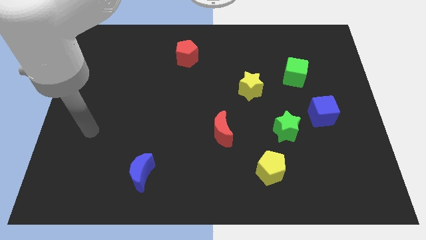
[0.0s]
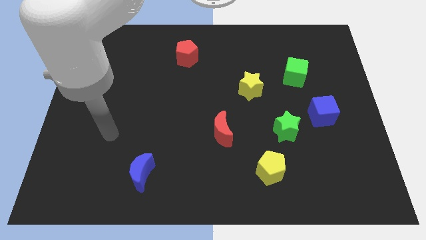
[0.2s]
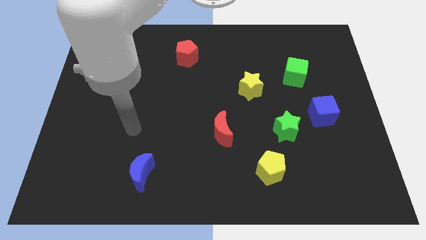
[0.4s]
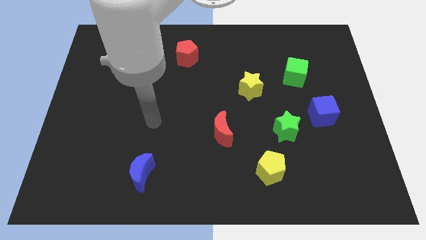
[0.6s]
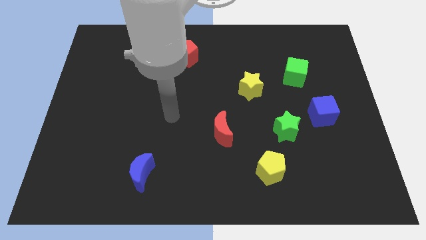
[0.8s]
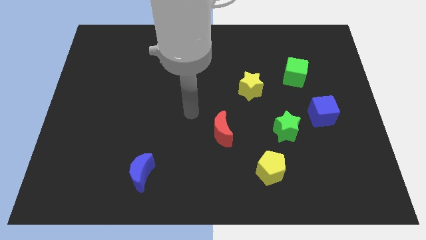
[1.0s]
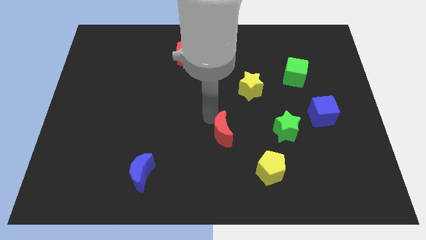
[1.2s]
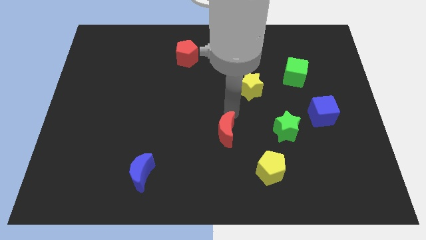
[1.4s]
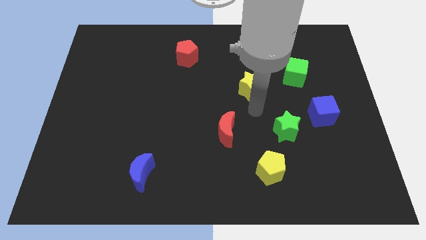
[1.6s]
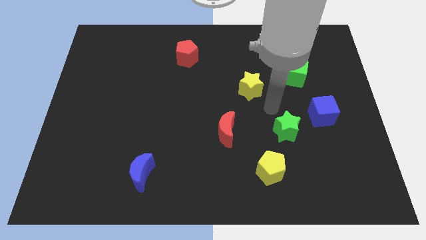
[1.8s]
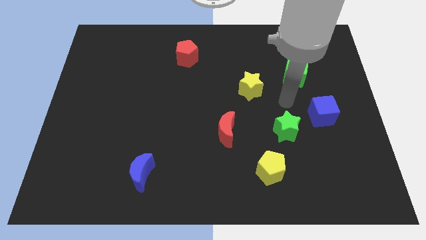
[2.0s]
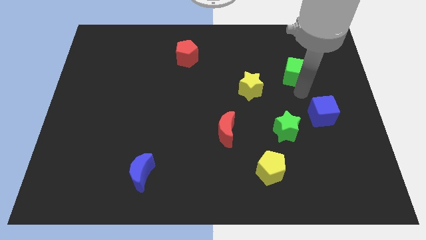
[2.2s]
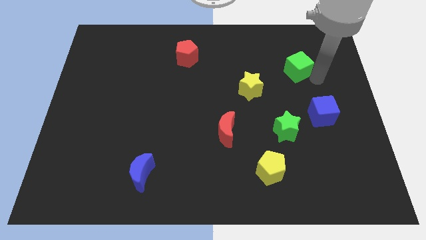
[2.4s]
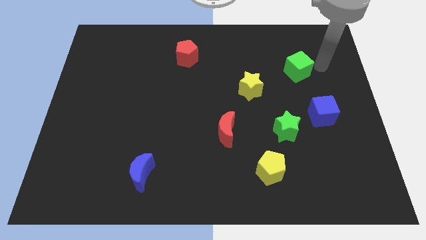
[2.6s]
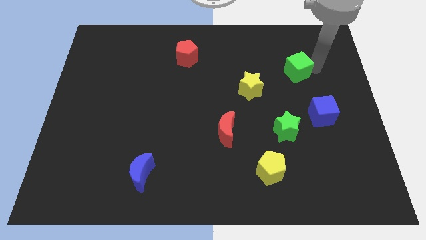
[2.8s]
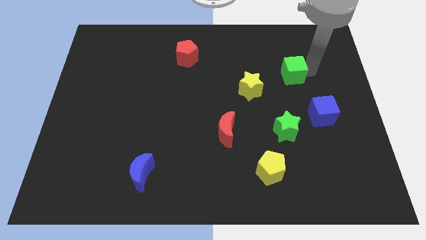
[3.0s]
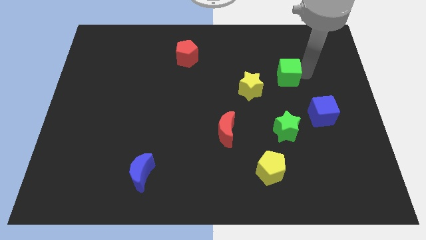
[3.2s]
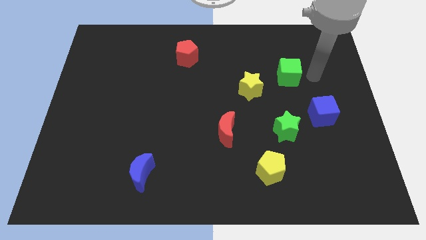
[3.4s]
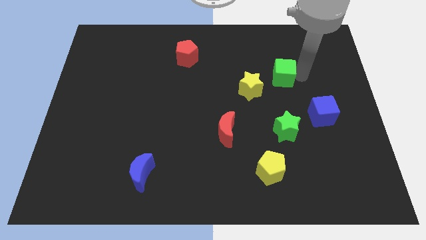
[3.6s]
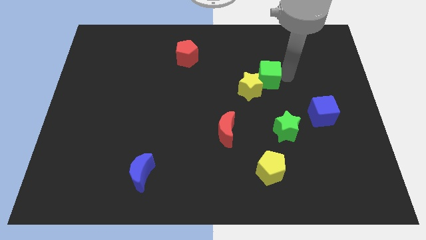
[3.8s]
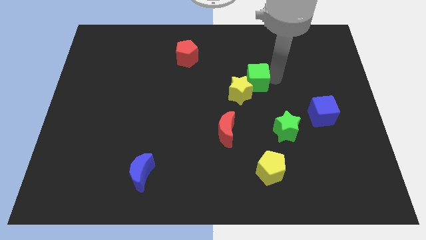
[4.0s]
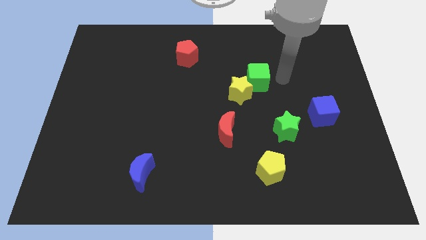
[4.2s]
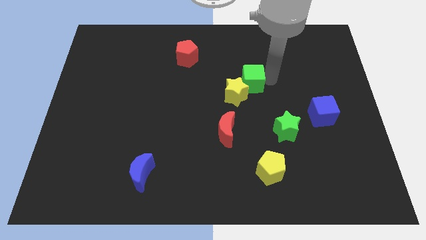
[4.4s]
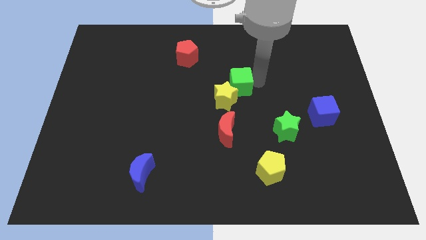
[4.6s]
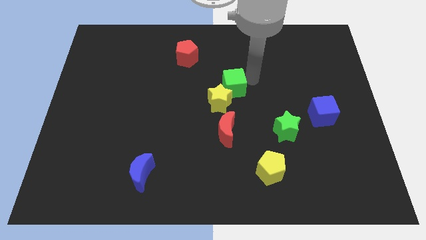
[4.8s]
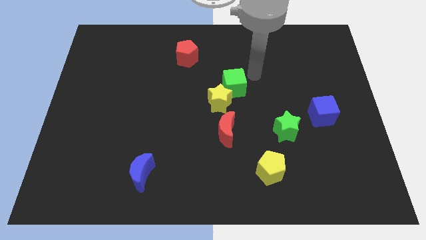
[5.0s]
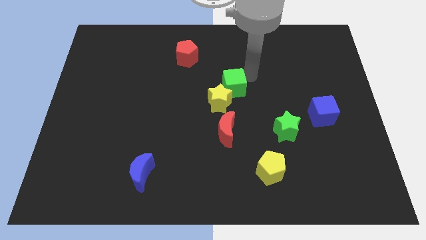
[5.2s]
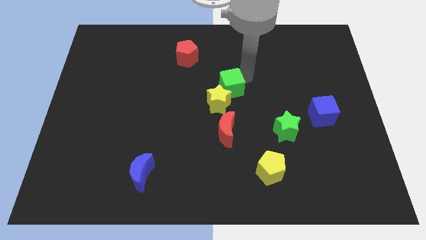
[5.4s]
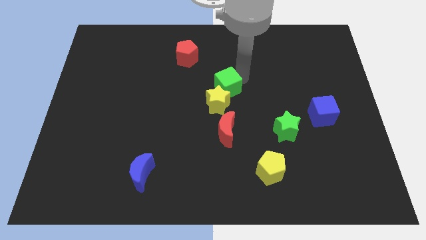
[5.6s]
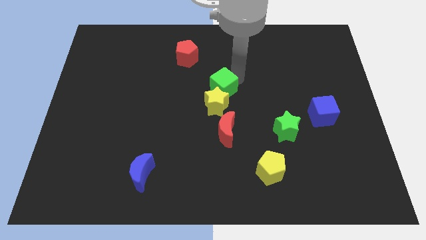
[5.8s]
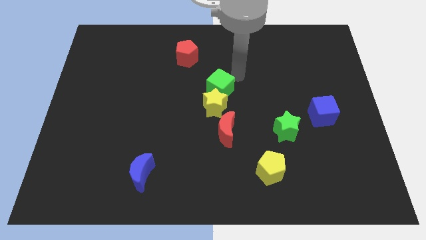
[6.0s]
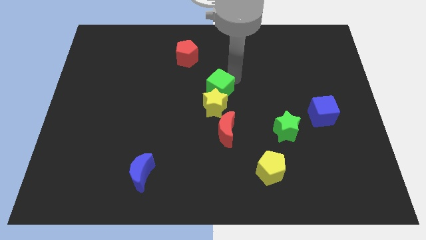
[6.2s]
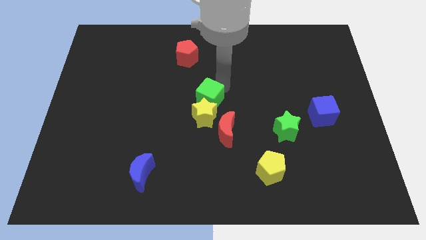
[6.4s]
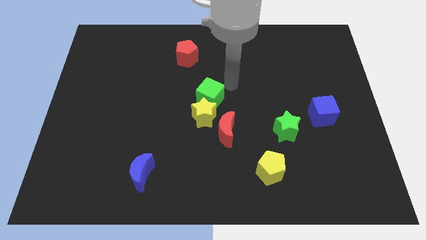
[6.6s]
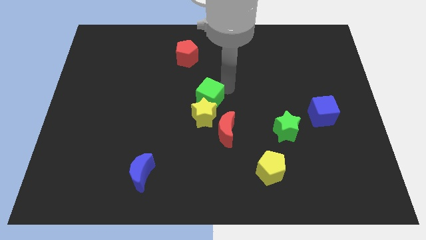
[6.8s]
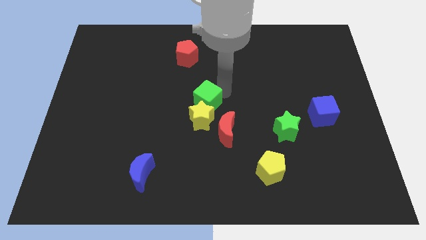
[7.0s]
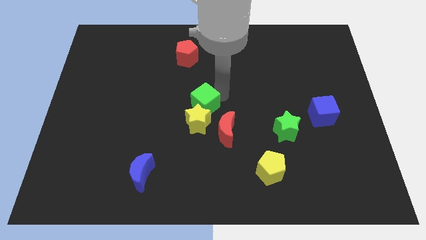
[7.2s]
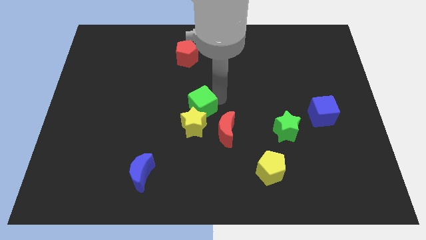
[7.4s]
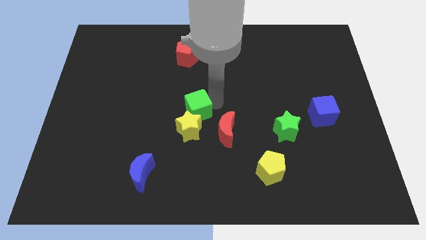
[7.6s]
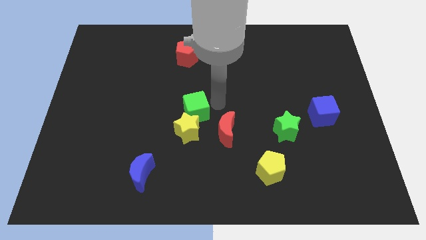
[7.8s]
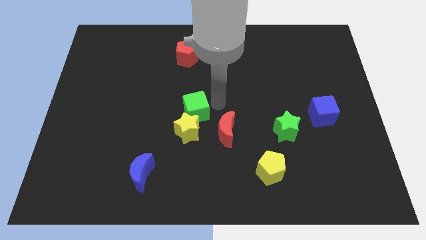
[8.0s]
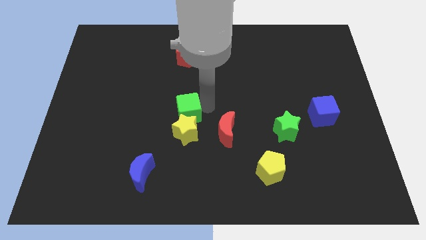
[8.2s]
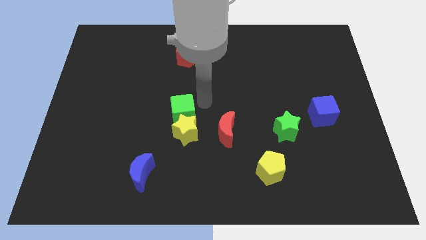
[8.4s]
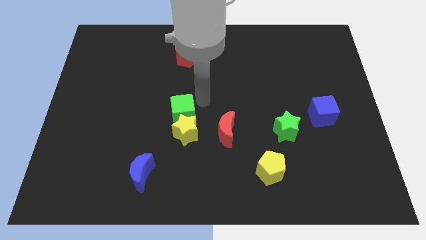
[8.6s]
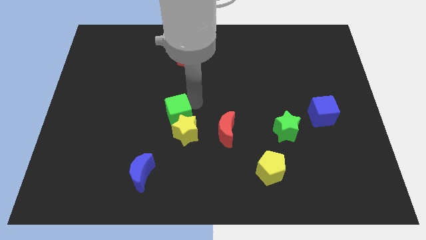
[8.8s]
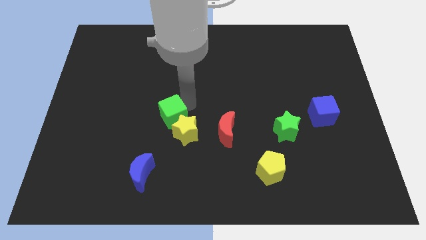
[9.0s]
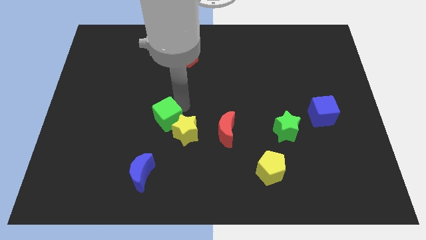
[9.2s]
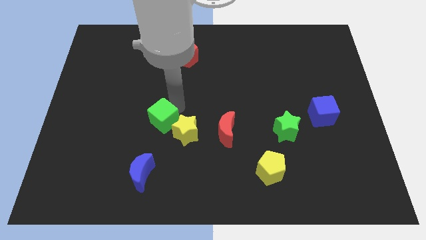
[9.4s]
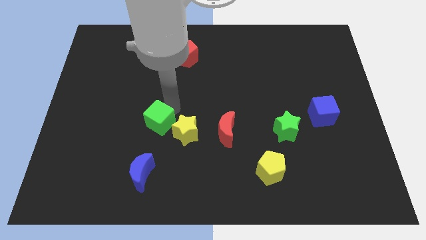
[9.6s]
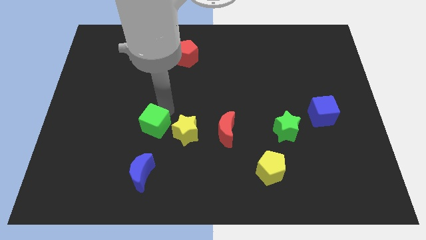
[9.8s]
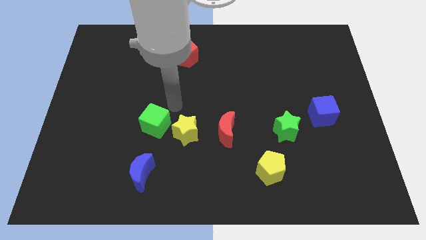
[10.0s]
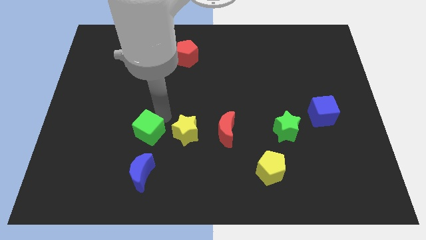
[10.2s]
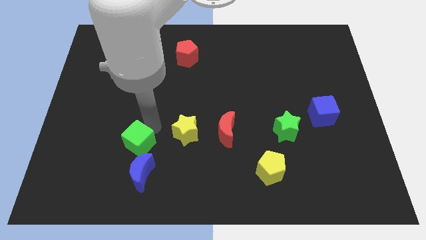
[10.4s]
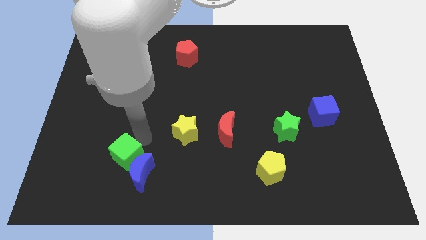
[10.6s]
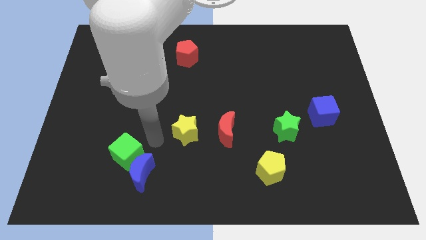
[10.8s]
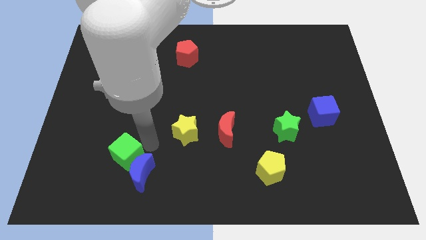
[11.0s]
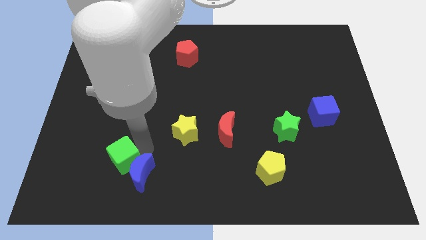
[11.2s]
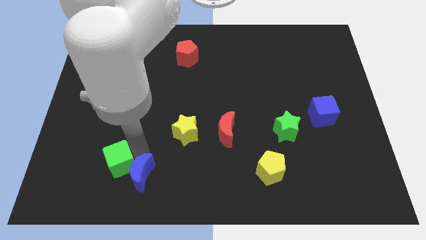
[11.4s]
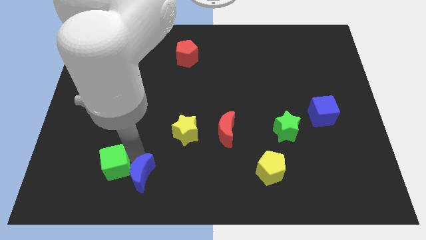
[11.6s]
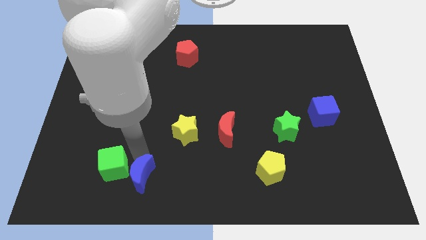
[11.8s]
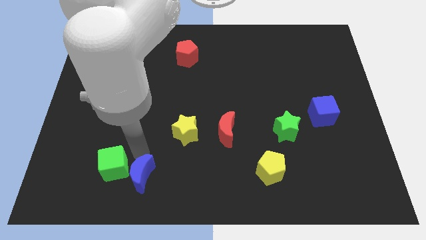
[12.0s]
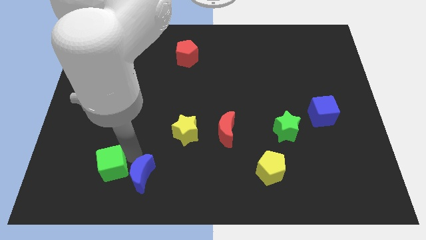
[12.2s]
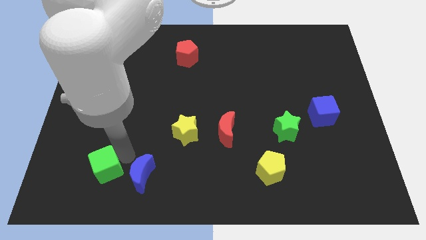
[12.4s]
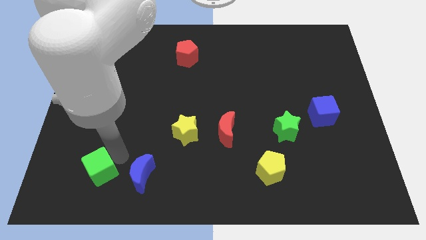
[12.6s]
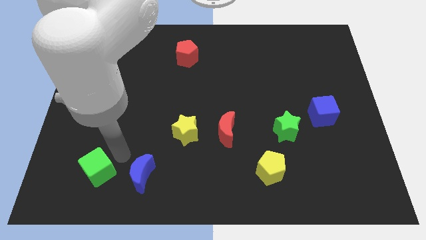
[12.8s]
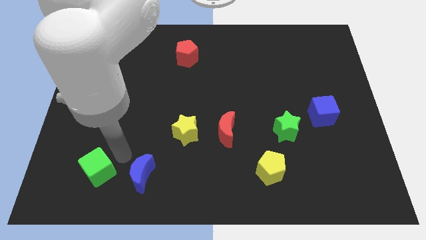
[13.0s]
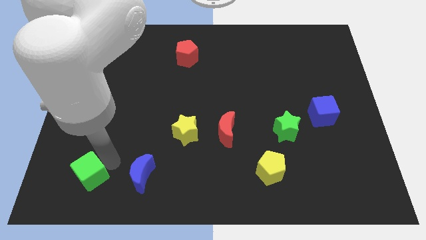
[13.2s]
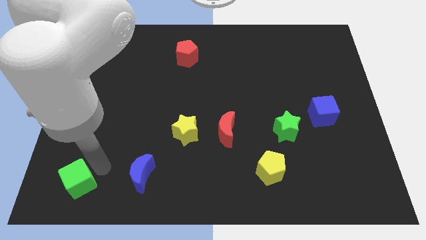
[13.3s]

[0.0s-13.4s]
push the green cube to the bottom left corner
